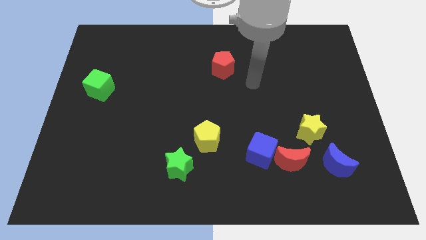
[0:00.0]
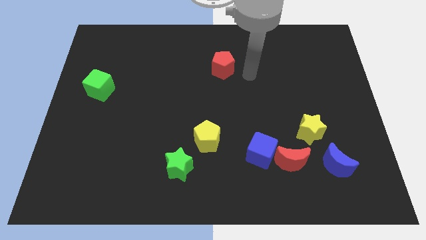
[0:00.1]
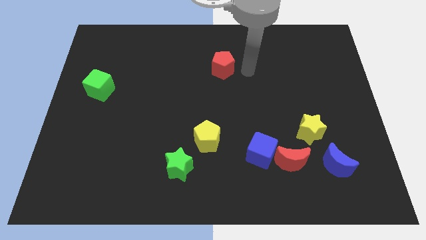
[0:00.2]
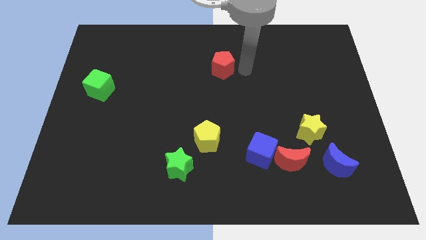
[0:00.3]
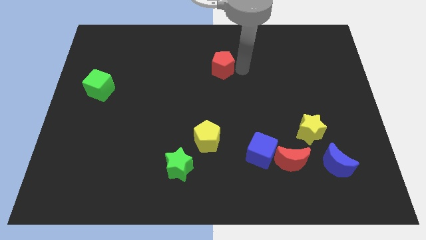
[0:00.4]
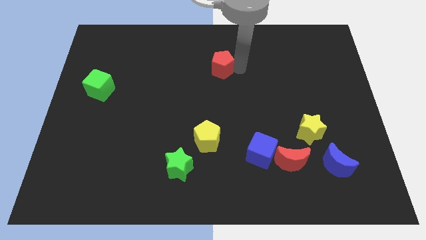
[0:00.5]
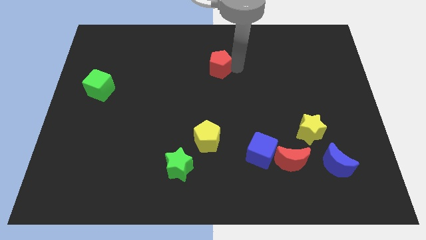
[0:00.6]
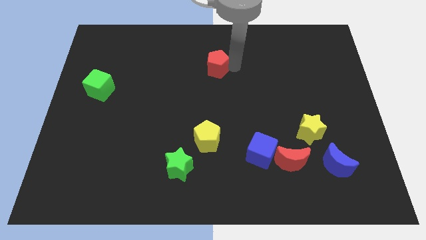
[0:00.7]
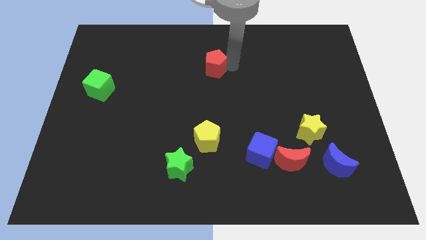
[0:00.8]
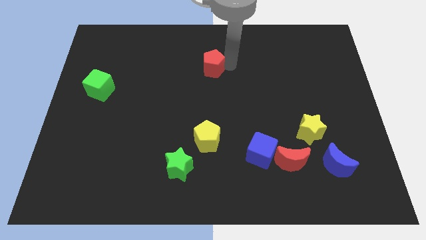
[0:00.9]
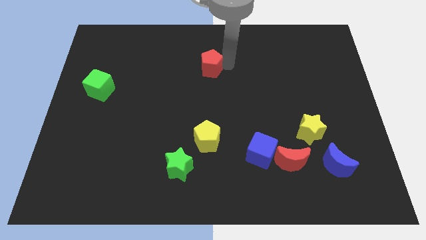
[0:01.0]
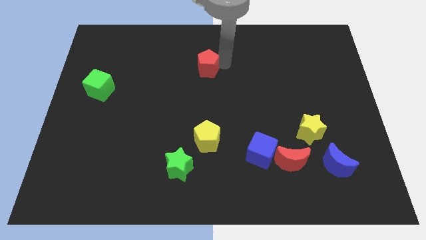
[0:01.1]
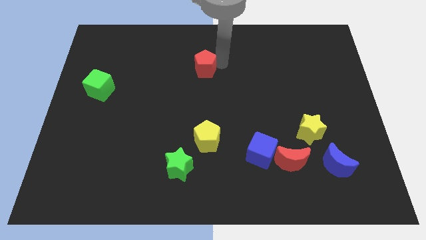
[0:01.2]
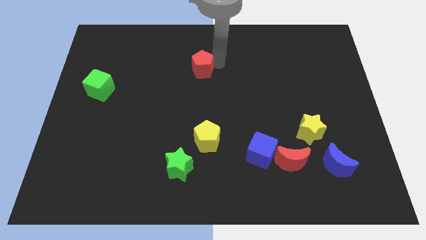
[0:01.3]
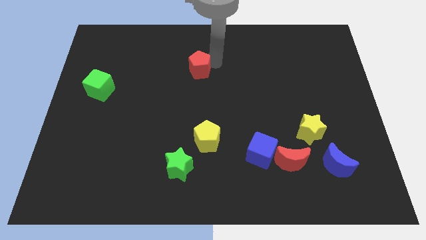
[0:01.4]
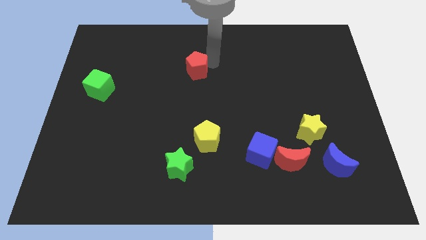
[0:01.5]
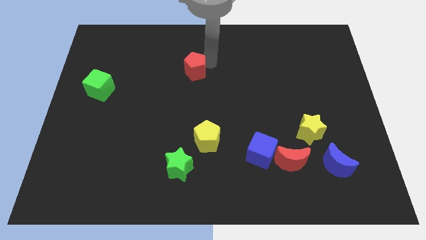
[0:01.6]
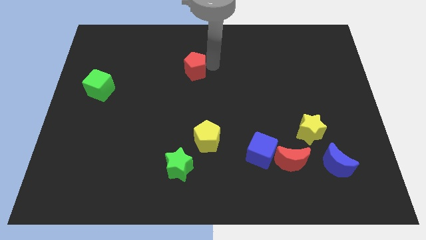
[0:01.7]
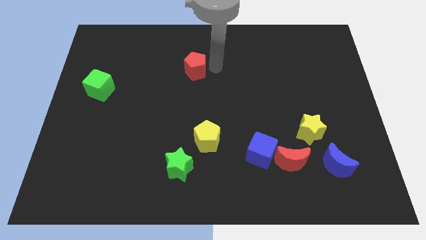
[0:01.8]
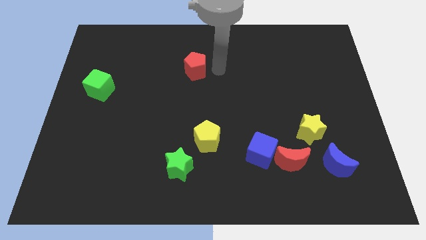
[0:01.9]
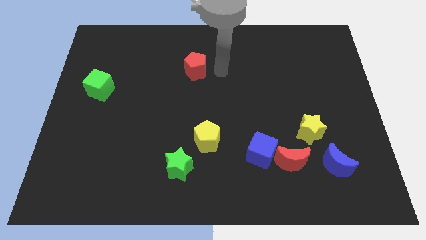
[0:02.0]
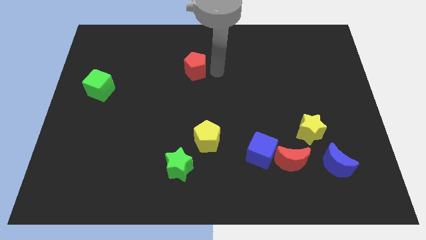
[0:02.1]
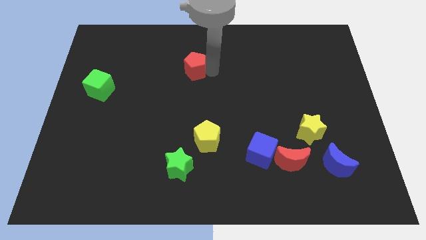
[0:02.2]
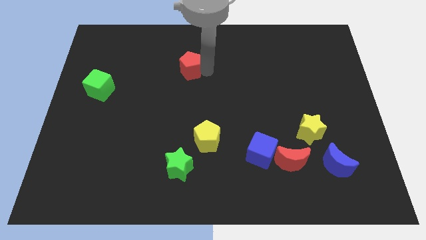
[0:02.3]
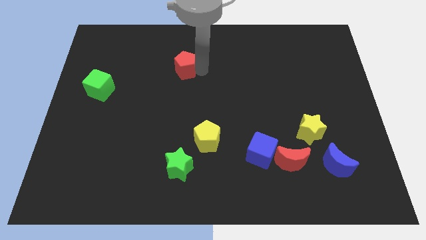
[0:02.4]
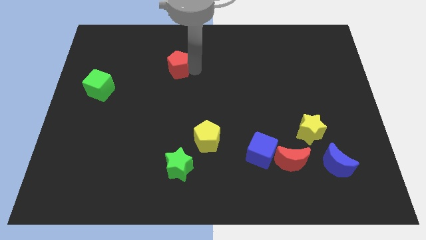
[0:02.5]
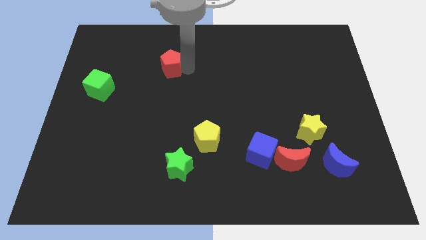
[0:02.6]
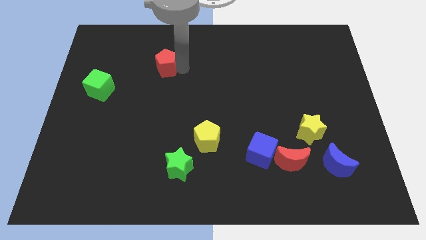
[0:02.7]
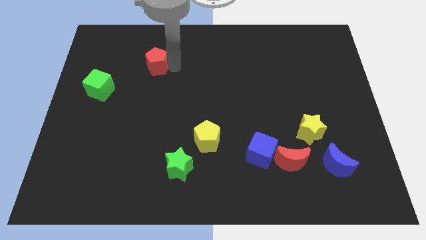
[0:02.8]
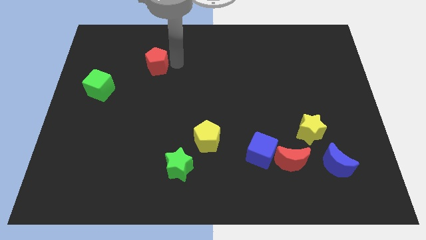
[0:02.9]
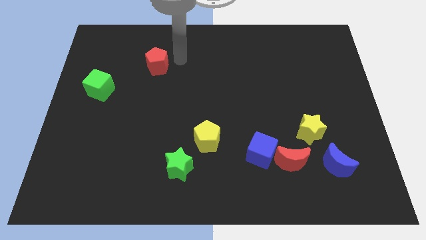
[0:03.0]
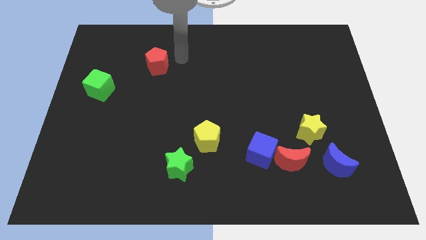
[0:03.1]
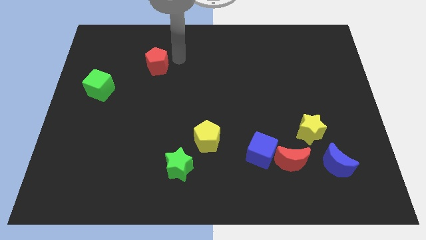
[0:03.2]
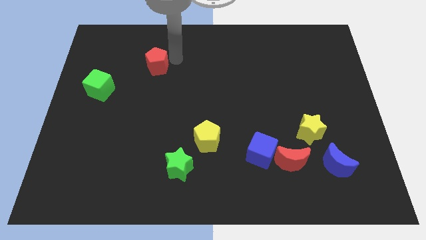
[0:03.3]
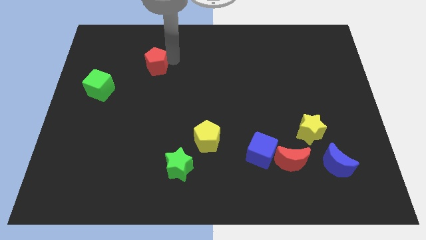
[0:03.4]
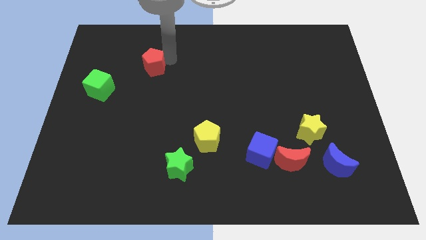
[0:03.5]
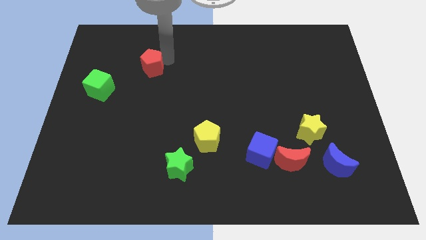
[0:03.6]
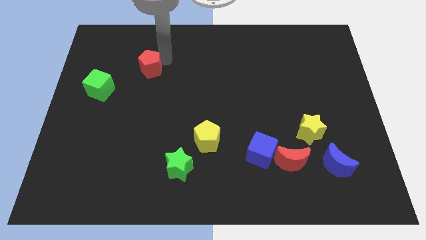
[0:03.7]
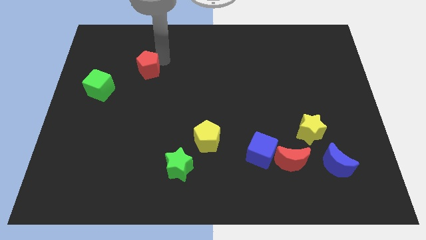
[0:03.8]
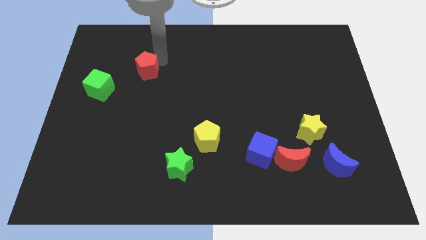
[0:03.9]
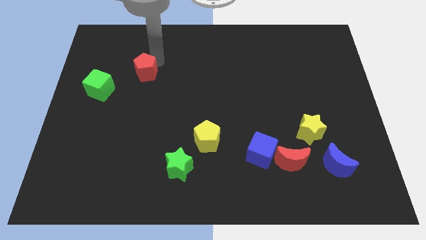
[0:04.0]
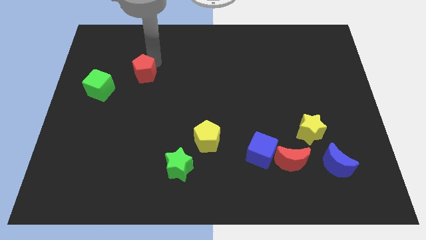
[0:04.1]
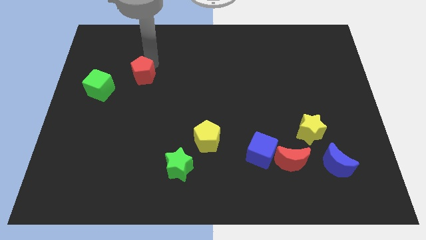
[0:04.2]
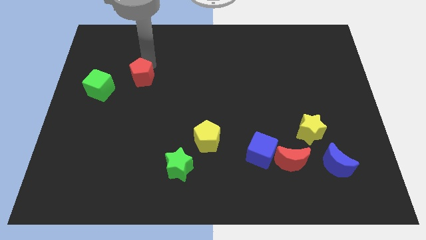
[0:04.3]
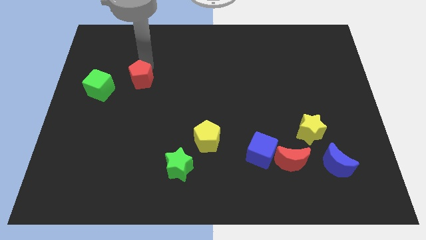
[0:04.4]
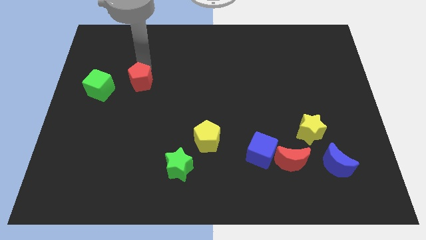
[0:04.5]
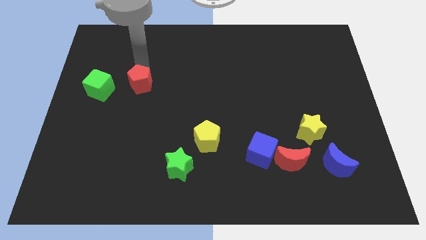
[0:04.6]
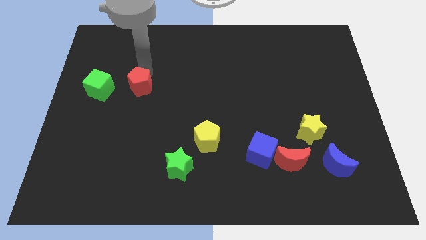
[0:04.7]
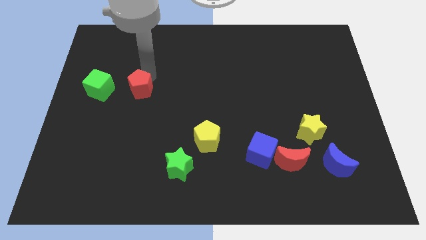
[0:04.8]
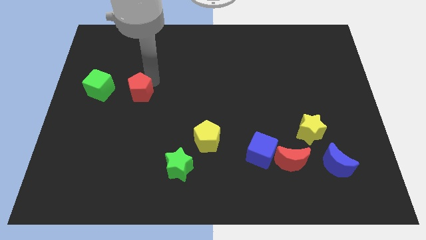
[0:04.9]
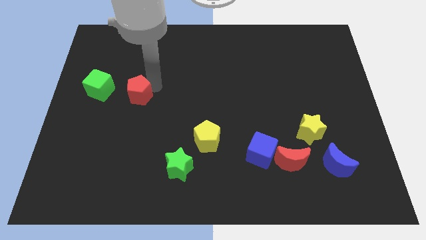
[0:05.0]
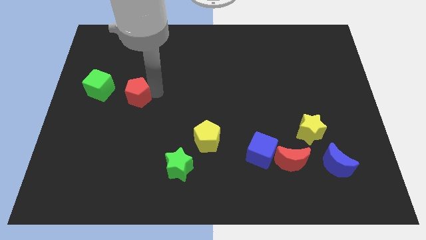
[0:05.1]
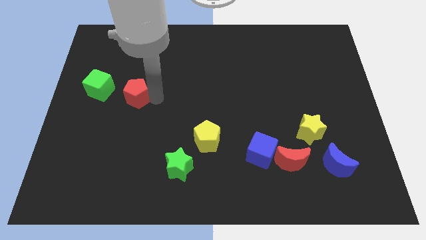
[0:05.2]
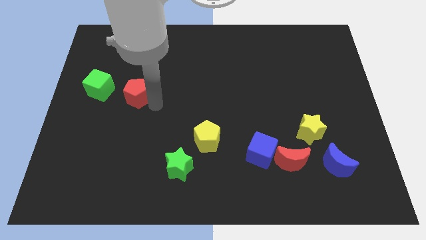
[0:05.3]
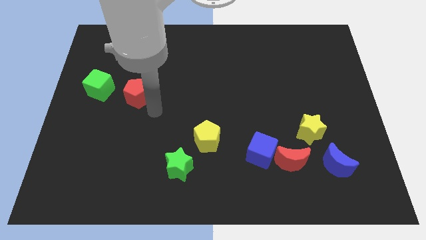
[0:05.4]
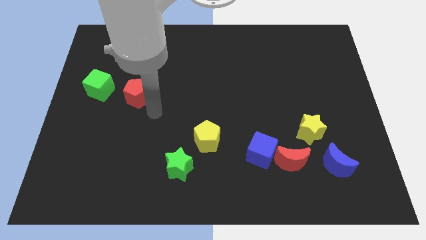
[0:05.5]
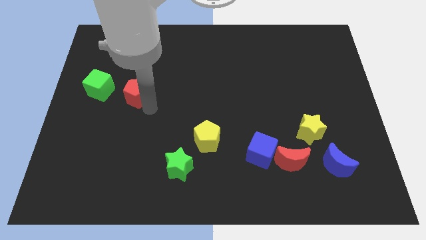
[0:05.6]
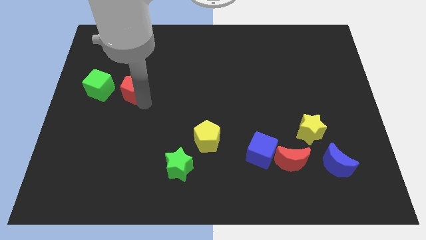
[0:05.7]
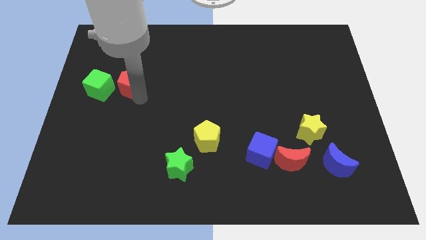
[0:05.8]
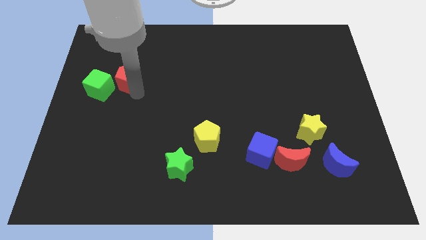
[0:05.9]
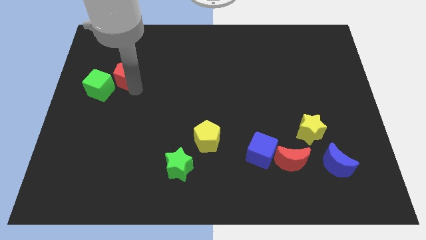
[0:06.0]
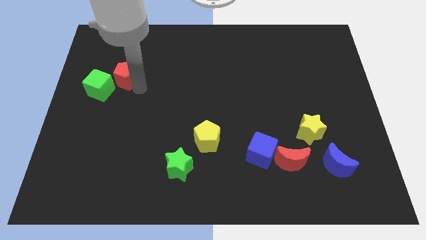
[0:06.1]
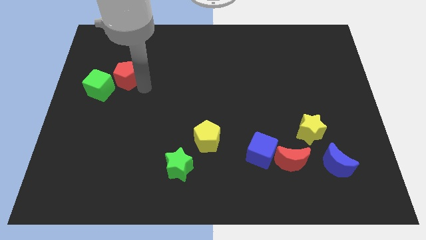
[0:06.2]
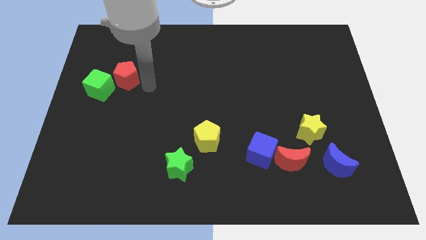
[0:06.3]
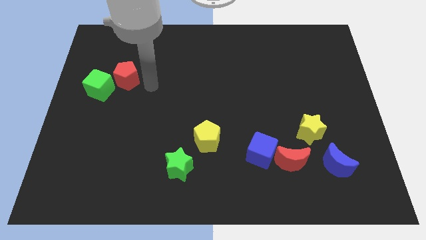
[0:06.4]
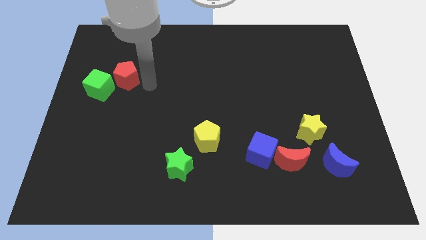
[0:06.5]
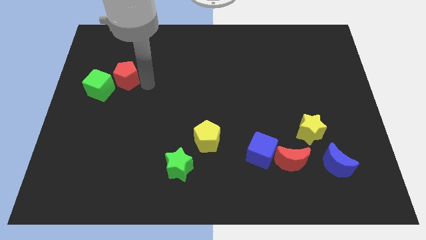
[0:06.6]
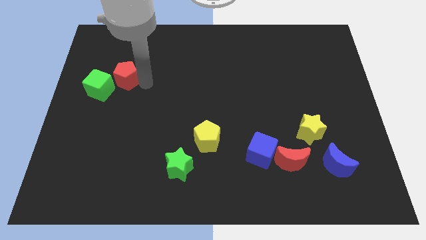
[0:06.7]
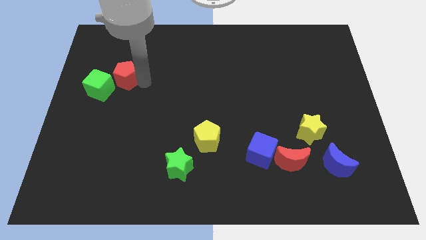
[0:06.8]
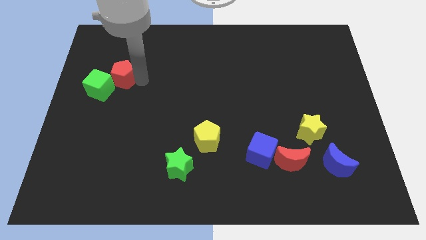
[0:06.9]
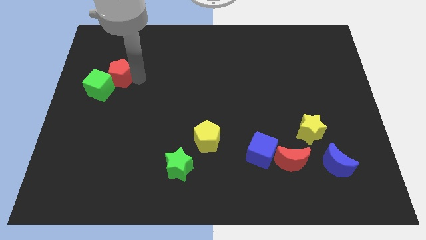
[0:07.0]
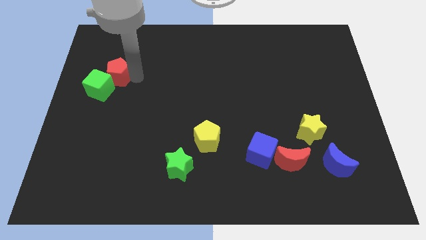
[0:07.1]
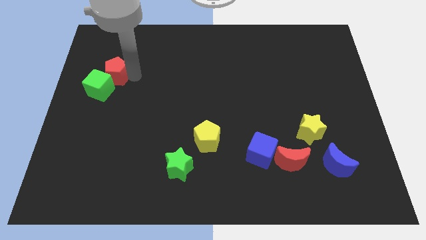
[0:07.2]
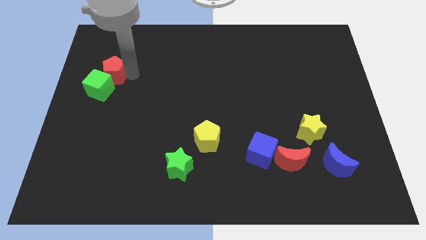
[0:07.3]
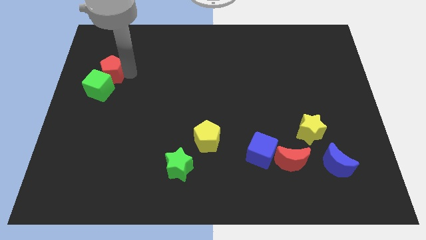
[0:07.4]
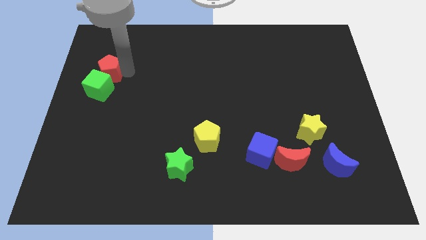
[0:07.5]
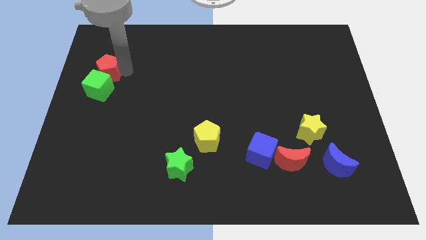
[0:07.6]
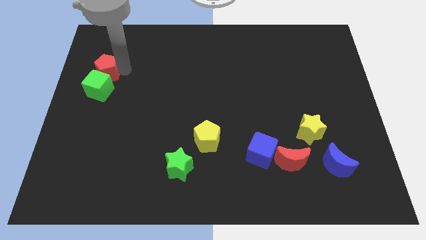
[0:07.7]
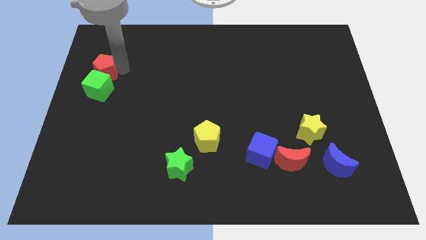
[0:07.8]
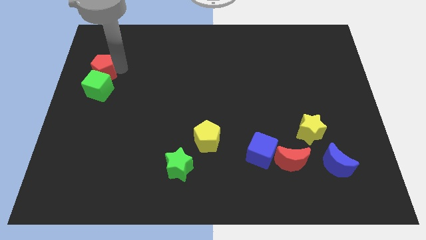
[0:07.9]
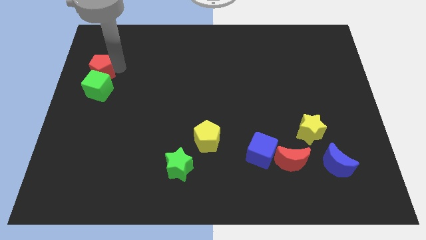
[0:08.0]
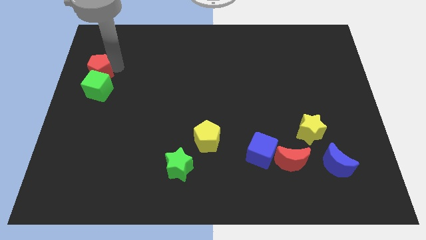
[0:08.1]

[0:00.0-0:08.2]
move the red pentagon to the left side of the board
